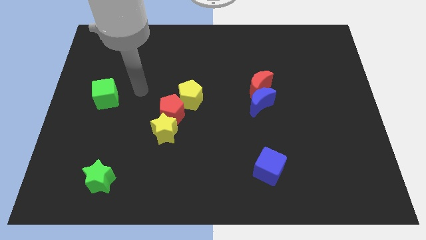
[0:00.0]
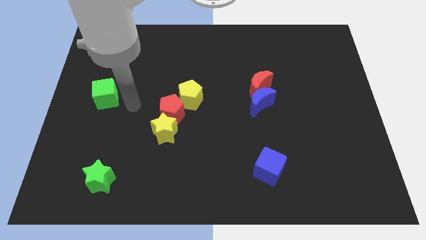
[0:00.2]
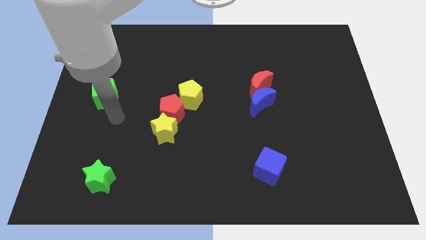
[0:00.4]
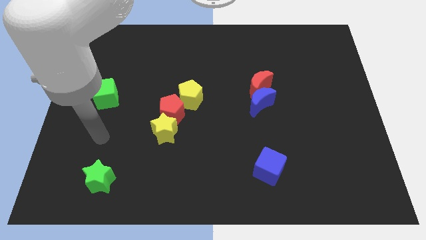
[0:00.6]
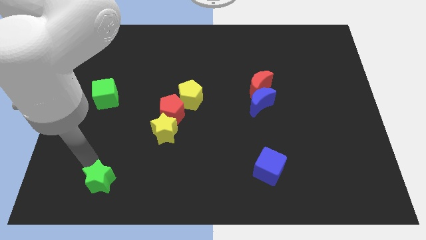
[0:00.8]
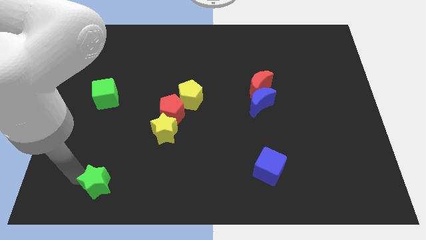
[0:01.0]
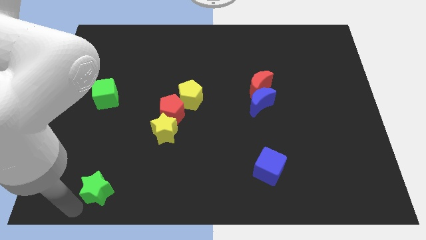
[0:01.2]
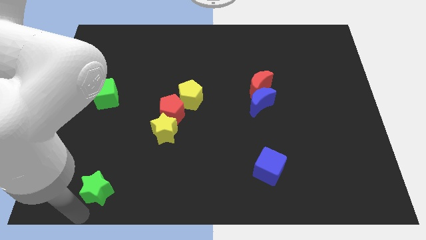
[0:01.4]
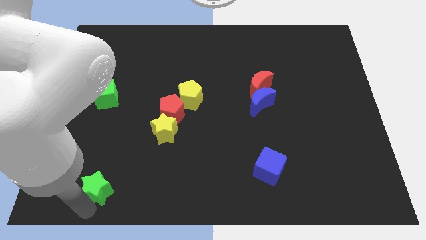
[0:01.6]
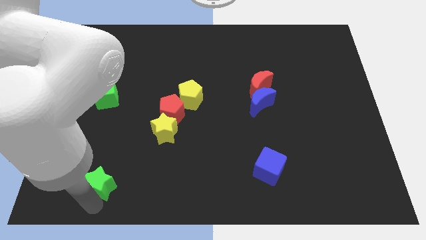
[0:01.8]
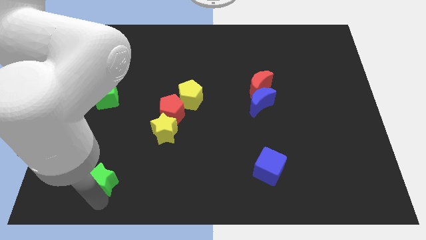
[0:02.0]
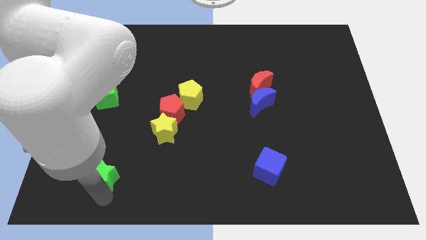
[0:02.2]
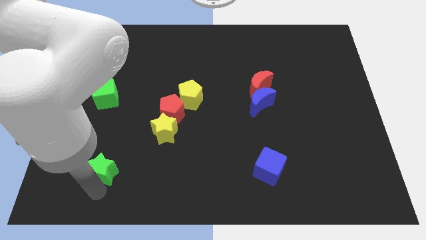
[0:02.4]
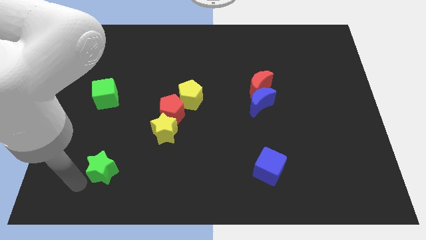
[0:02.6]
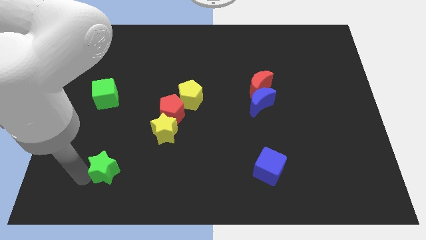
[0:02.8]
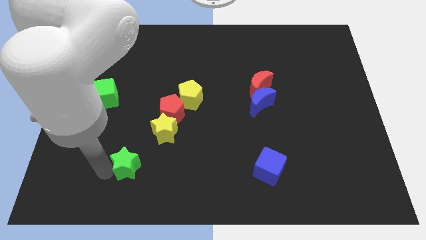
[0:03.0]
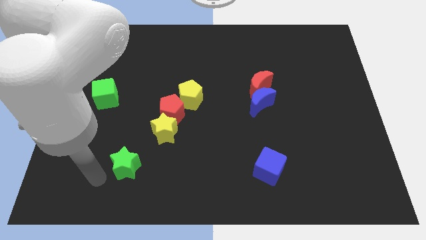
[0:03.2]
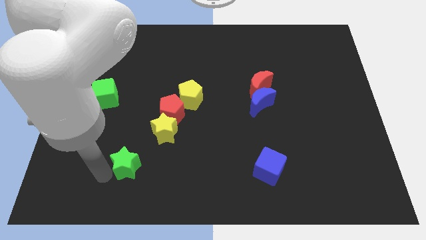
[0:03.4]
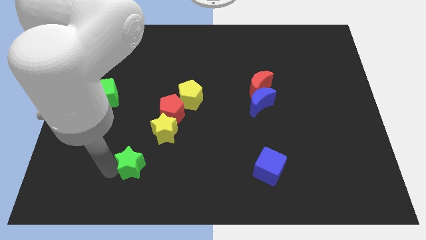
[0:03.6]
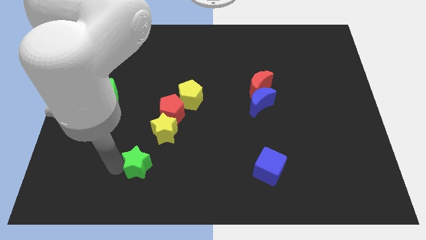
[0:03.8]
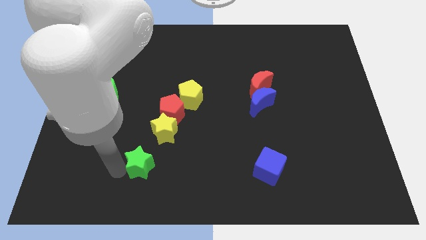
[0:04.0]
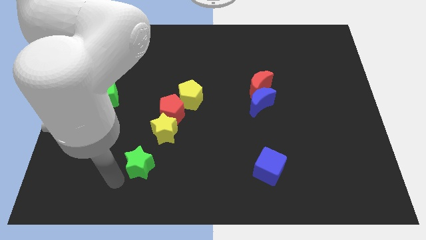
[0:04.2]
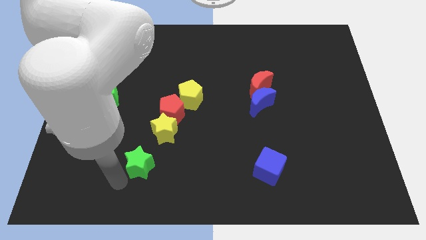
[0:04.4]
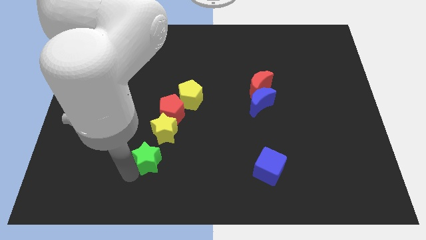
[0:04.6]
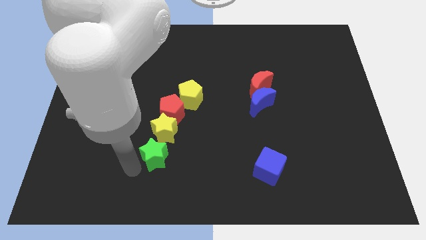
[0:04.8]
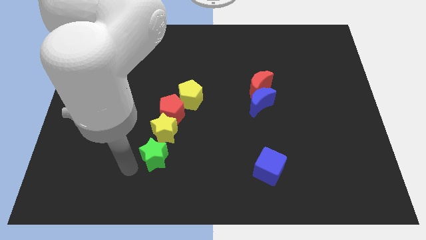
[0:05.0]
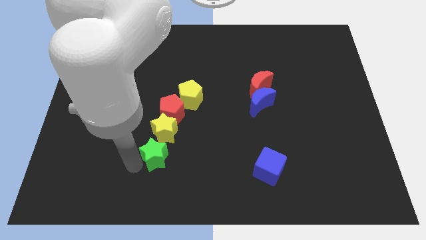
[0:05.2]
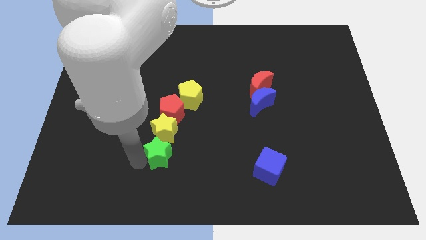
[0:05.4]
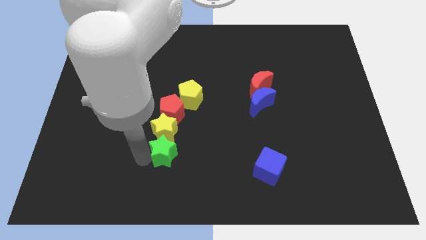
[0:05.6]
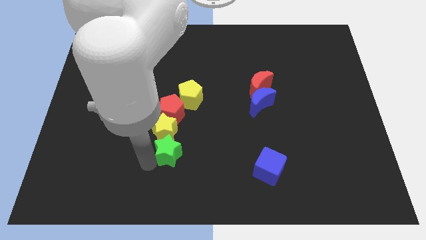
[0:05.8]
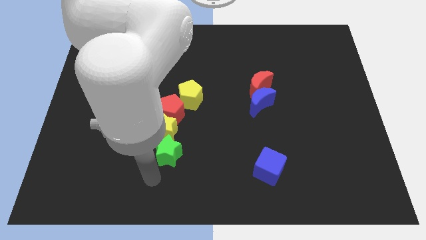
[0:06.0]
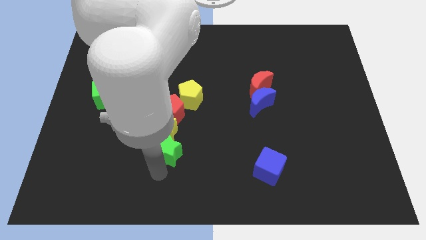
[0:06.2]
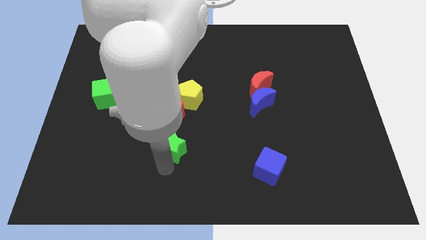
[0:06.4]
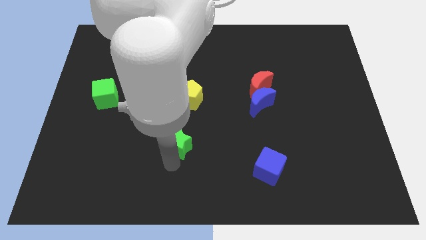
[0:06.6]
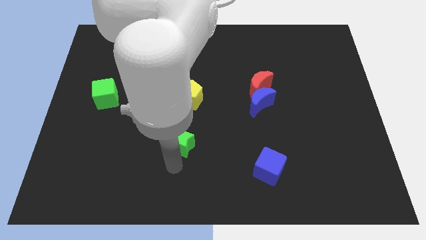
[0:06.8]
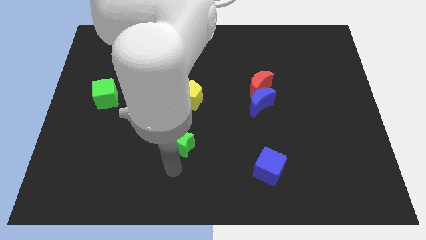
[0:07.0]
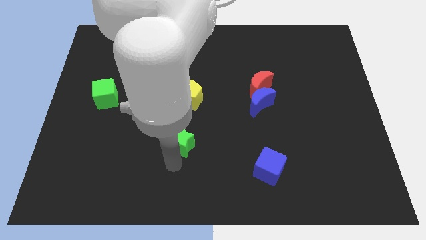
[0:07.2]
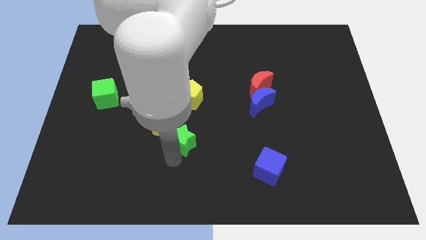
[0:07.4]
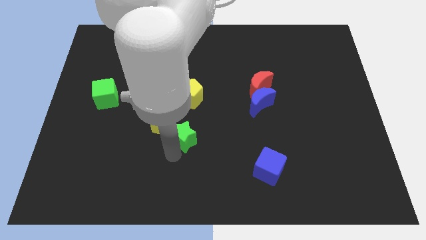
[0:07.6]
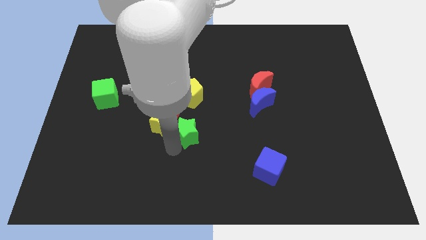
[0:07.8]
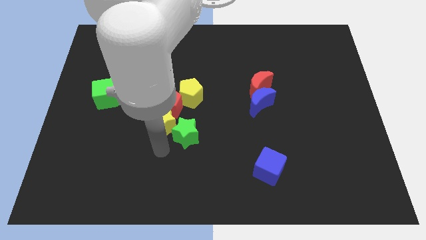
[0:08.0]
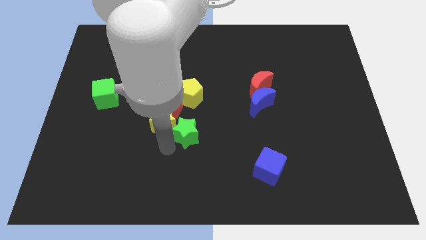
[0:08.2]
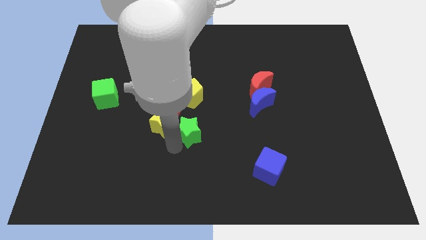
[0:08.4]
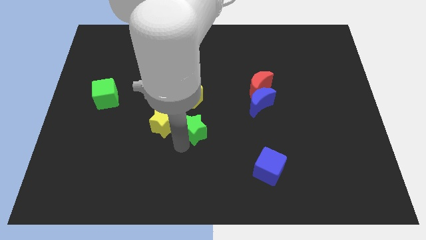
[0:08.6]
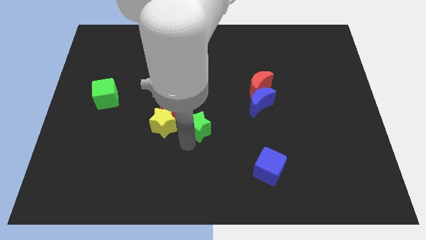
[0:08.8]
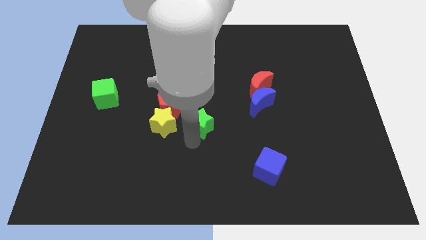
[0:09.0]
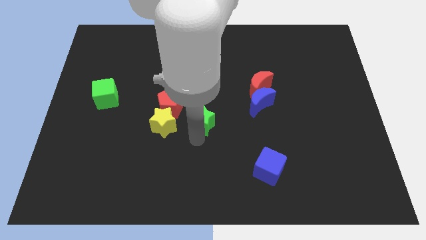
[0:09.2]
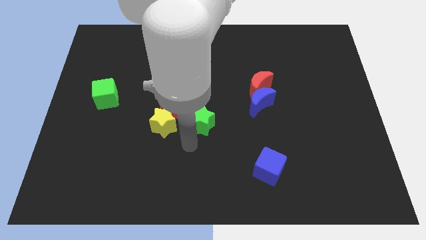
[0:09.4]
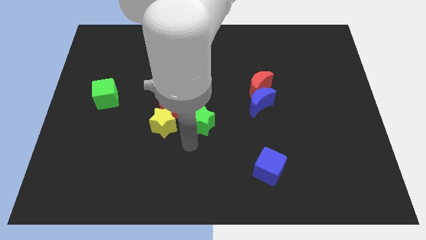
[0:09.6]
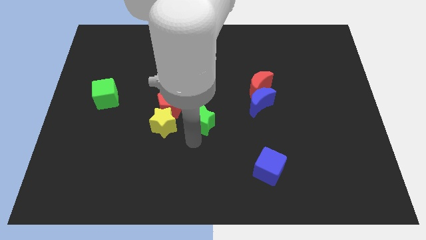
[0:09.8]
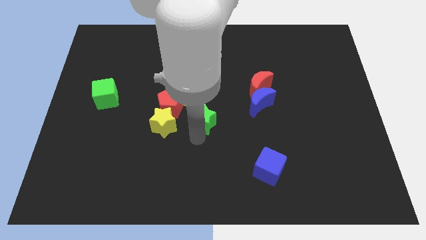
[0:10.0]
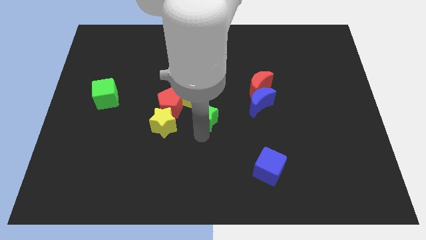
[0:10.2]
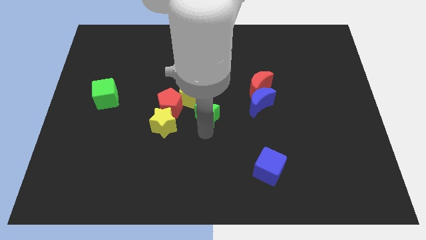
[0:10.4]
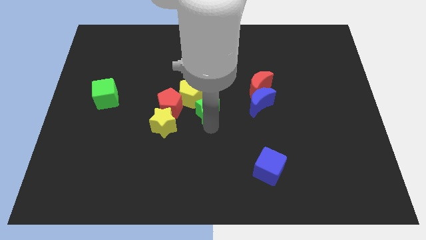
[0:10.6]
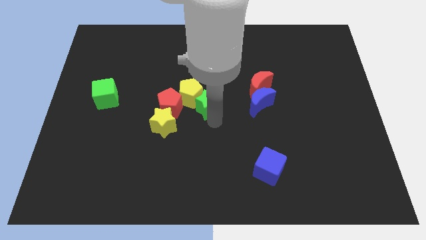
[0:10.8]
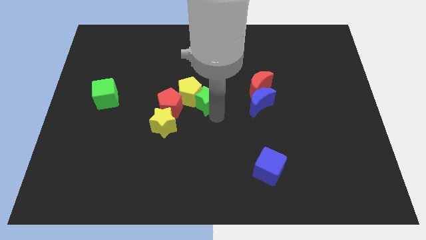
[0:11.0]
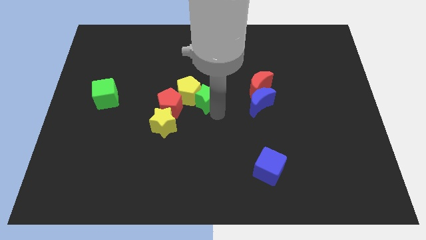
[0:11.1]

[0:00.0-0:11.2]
slide the green star left of the red moon

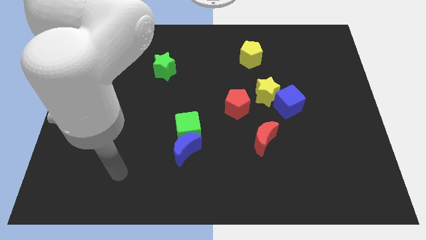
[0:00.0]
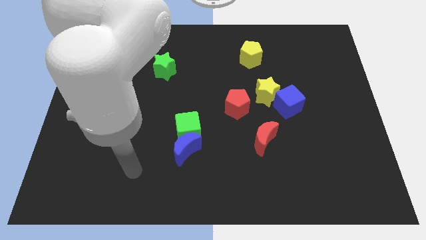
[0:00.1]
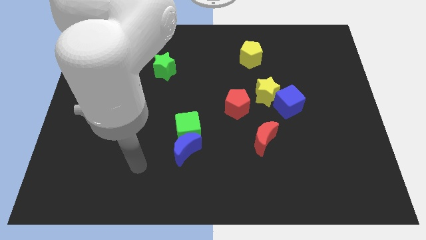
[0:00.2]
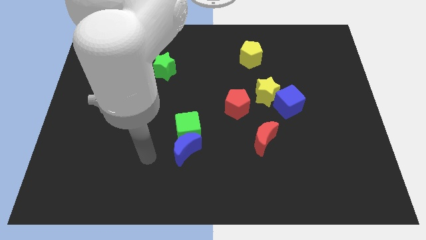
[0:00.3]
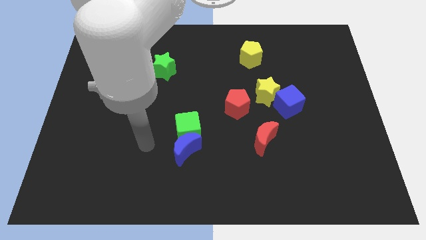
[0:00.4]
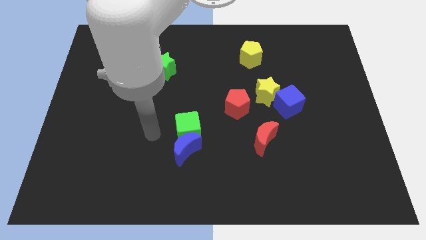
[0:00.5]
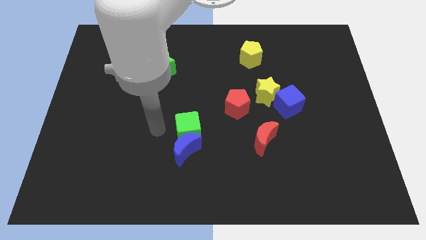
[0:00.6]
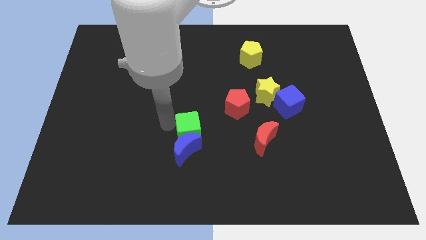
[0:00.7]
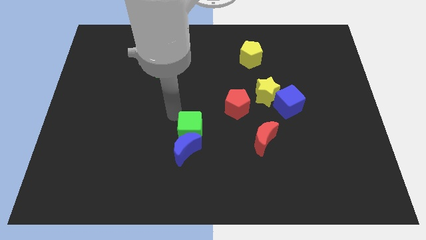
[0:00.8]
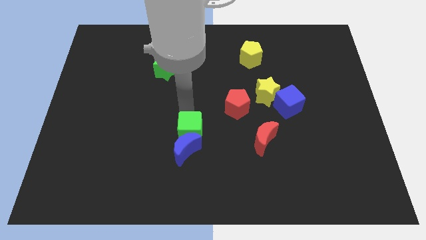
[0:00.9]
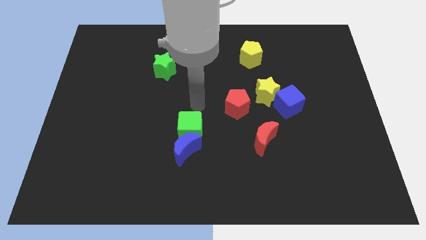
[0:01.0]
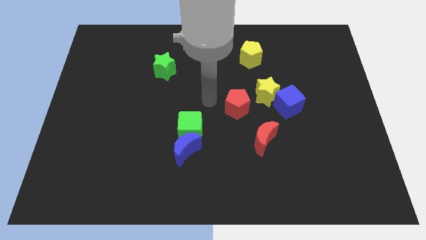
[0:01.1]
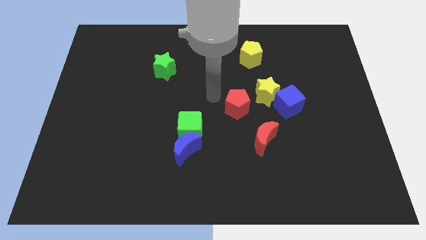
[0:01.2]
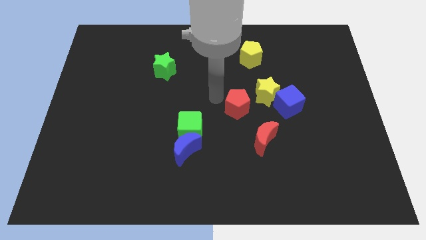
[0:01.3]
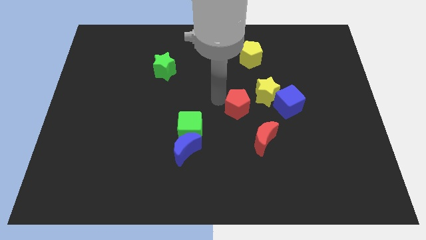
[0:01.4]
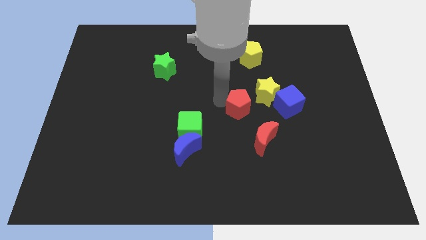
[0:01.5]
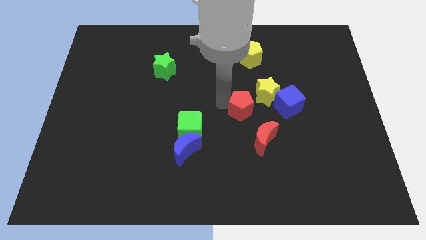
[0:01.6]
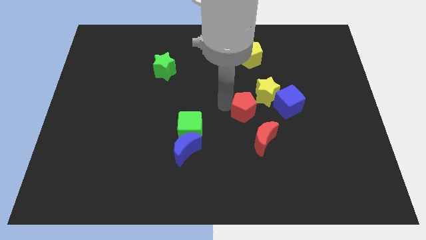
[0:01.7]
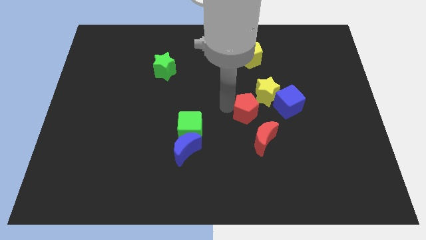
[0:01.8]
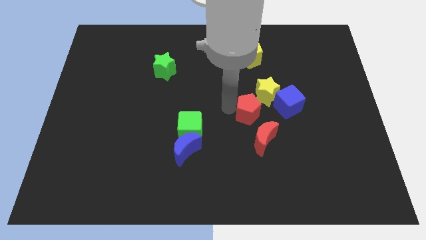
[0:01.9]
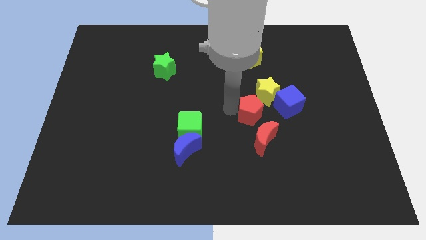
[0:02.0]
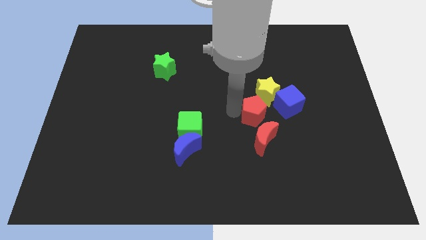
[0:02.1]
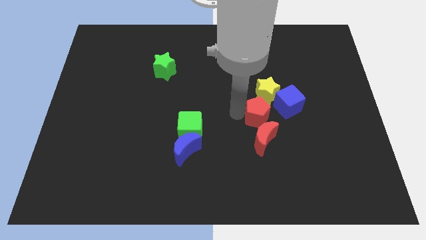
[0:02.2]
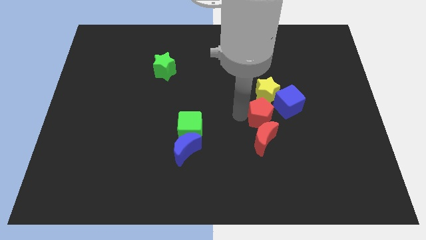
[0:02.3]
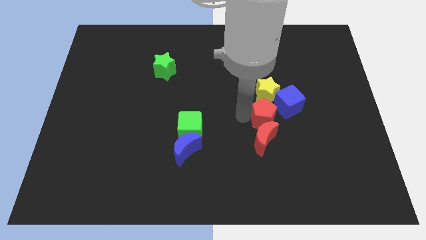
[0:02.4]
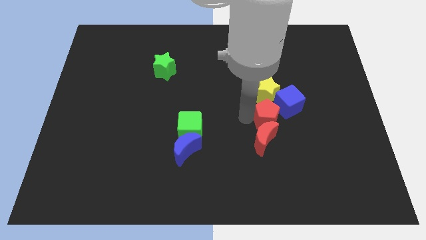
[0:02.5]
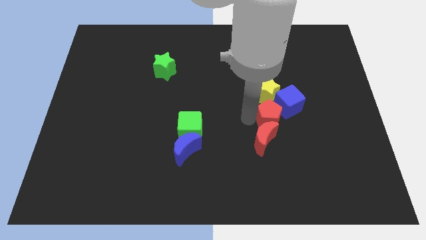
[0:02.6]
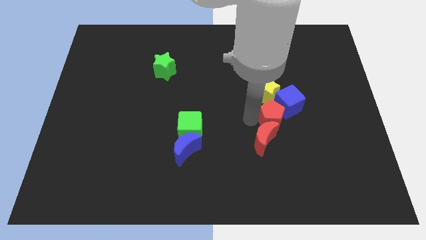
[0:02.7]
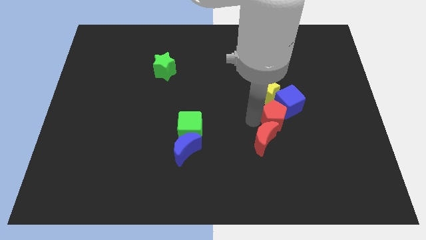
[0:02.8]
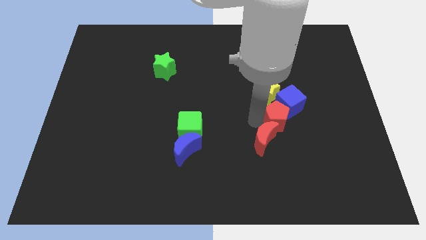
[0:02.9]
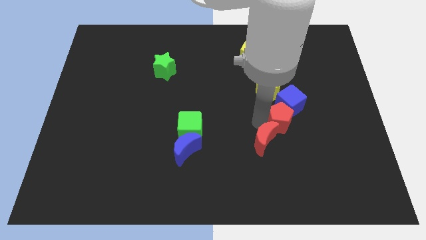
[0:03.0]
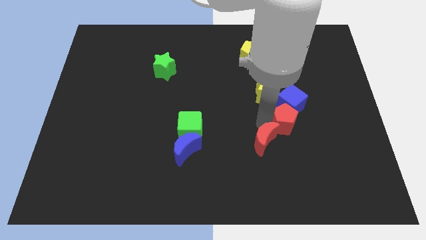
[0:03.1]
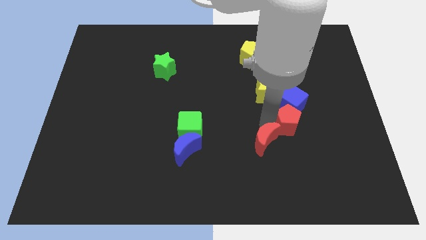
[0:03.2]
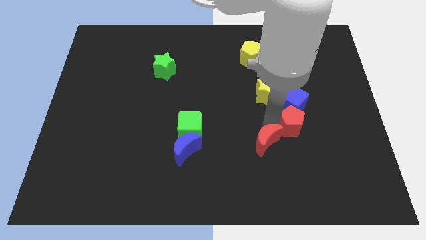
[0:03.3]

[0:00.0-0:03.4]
move the red pentagon to the bottom right side of the blue cube
